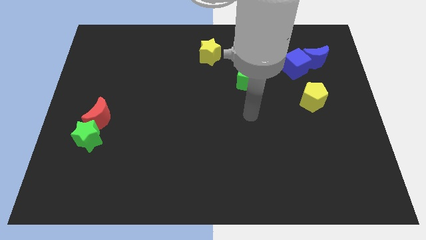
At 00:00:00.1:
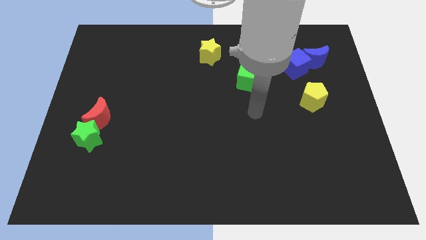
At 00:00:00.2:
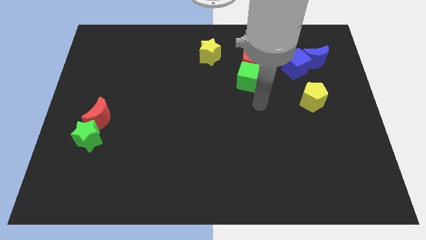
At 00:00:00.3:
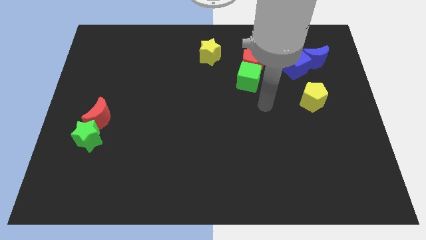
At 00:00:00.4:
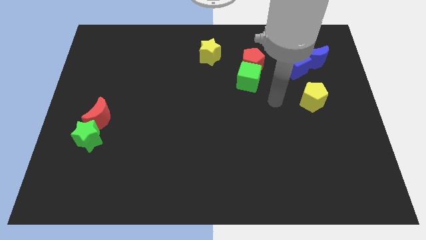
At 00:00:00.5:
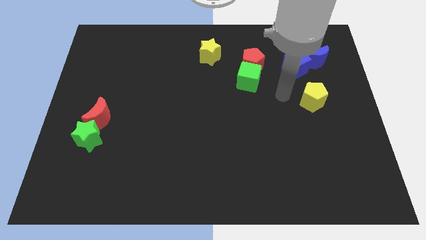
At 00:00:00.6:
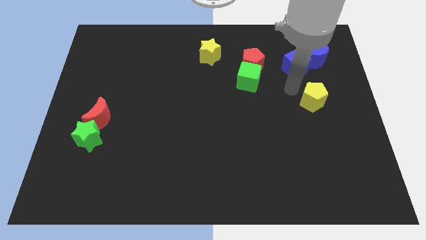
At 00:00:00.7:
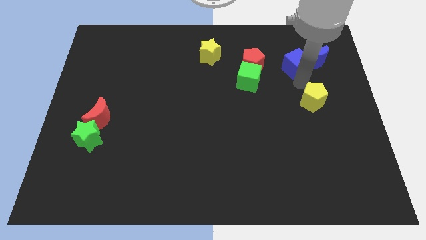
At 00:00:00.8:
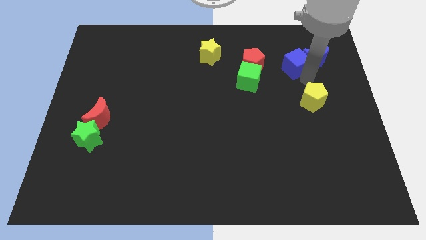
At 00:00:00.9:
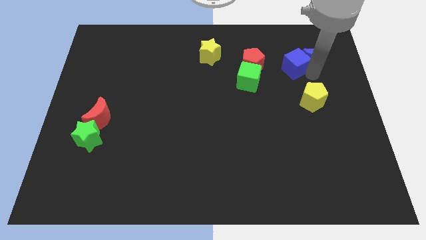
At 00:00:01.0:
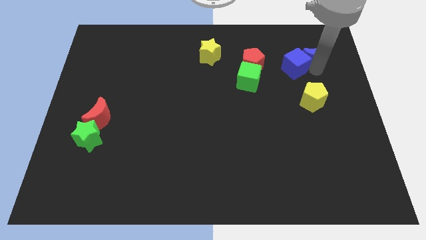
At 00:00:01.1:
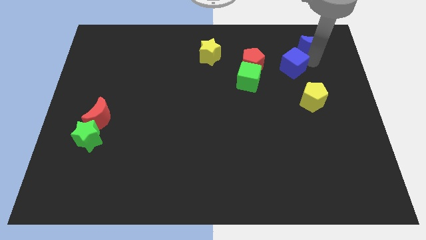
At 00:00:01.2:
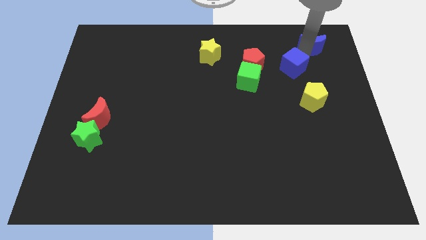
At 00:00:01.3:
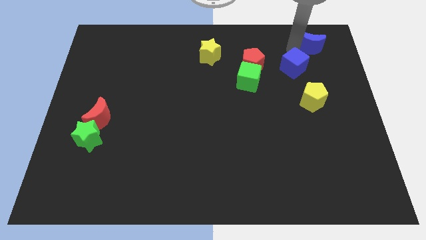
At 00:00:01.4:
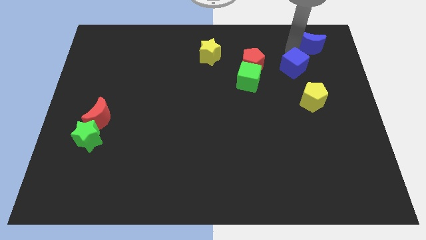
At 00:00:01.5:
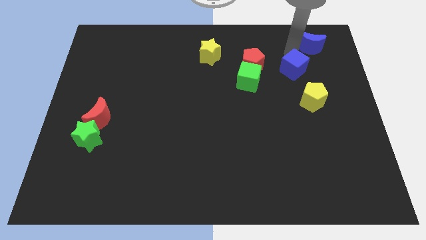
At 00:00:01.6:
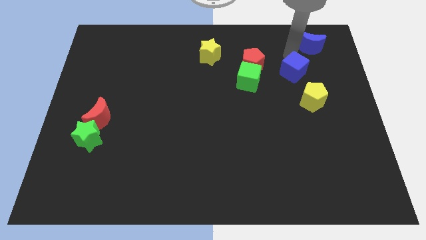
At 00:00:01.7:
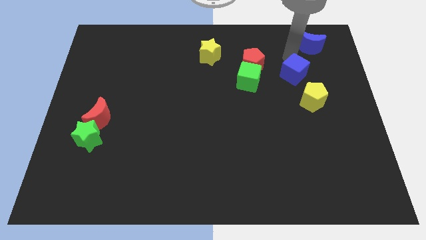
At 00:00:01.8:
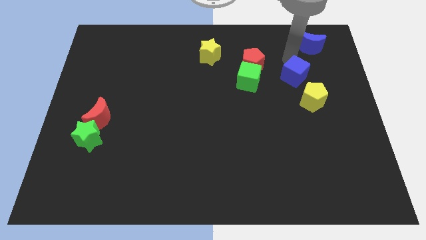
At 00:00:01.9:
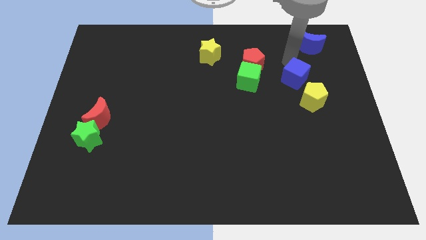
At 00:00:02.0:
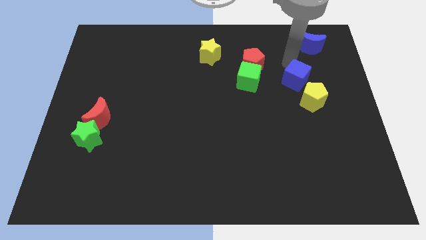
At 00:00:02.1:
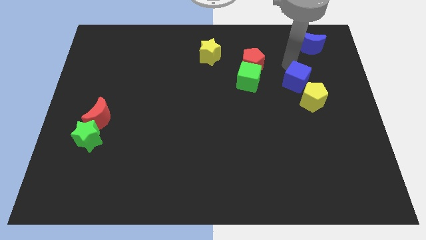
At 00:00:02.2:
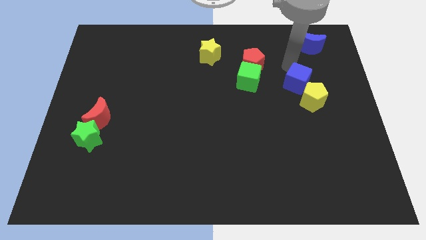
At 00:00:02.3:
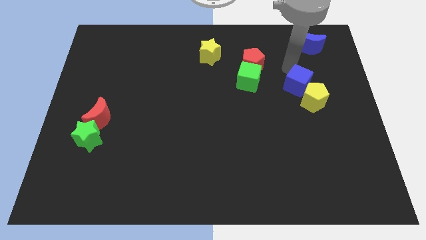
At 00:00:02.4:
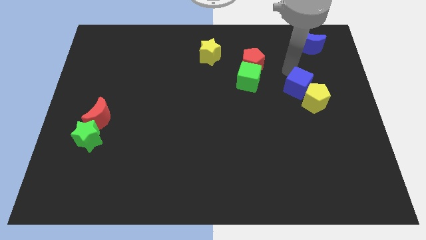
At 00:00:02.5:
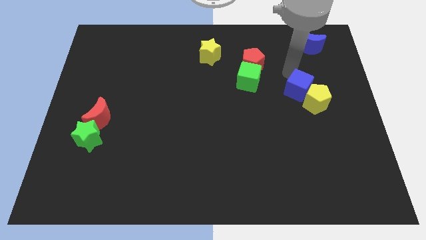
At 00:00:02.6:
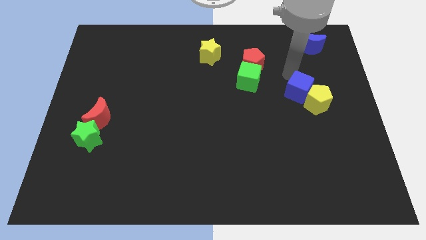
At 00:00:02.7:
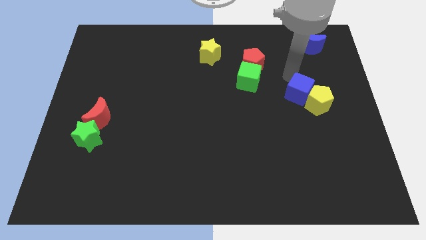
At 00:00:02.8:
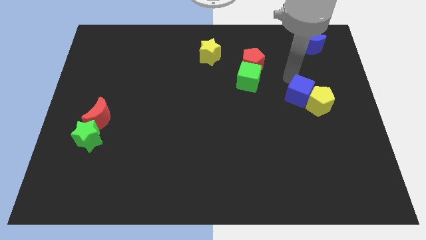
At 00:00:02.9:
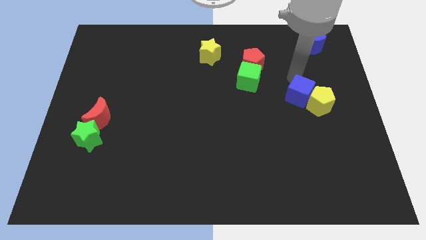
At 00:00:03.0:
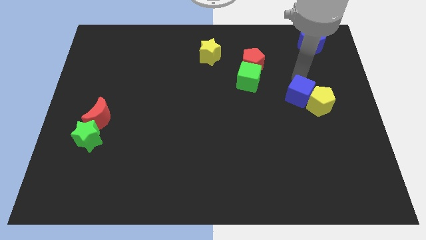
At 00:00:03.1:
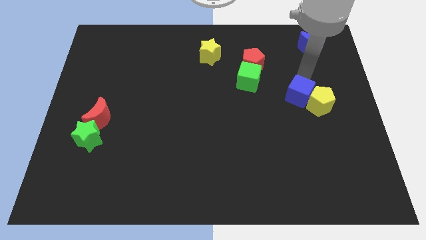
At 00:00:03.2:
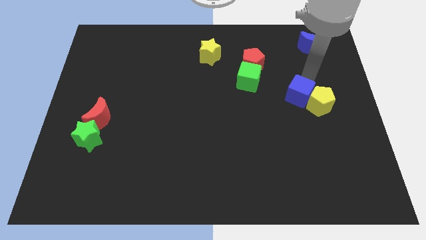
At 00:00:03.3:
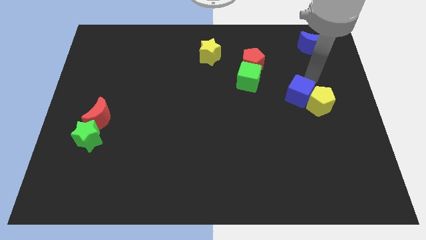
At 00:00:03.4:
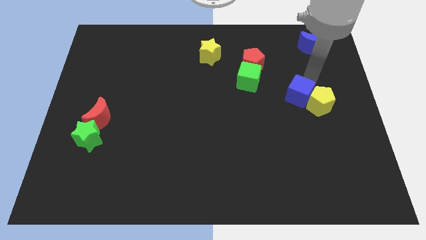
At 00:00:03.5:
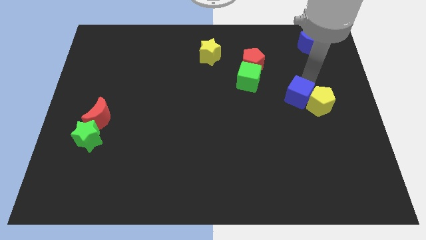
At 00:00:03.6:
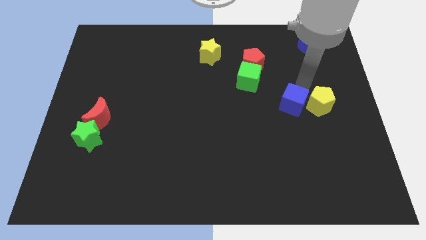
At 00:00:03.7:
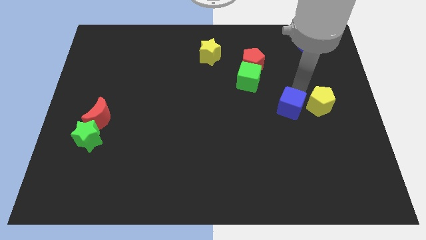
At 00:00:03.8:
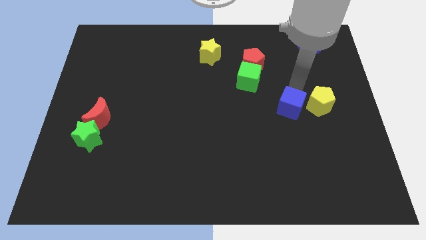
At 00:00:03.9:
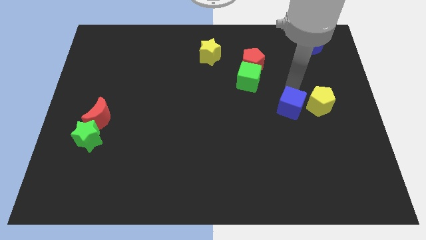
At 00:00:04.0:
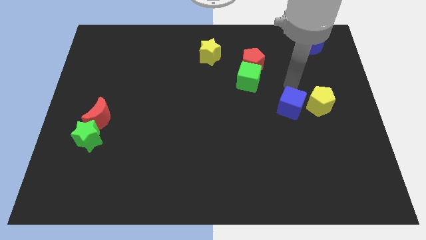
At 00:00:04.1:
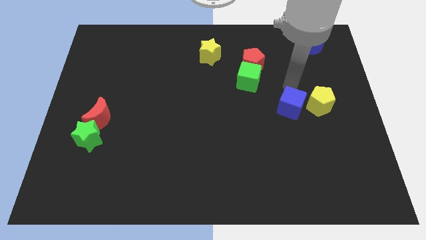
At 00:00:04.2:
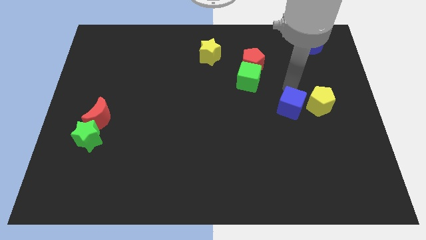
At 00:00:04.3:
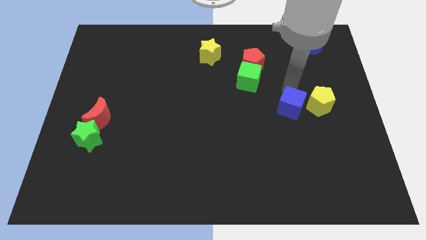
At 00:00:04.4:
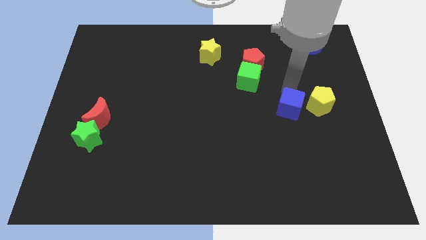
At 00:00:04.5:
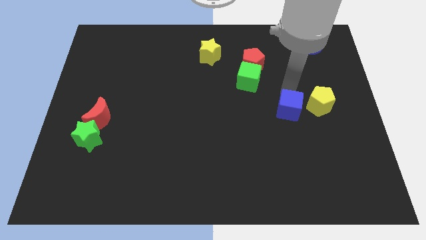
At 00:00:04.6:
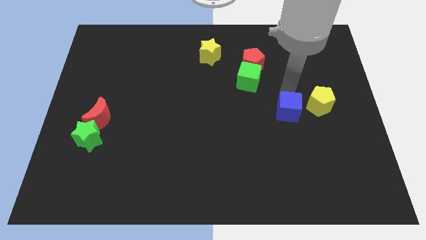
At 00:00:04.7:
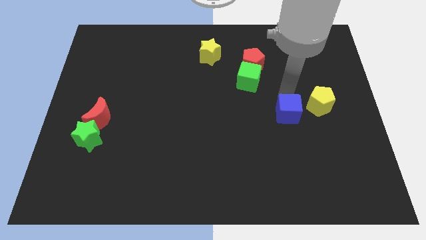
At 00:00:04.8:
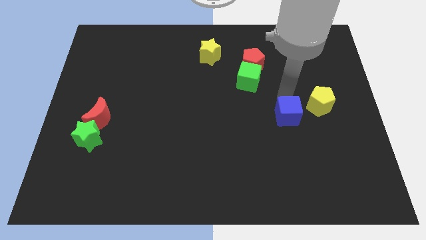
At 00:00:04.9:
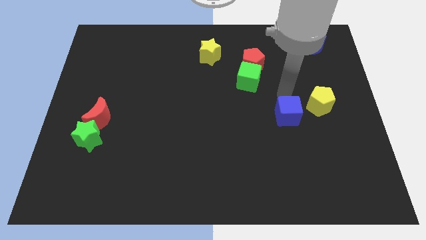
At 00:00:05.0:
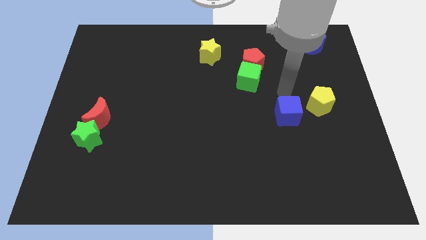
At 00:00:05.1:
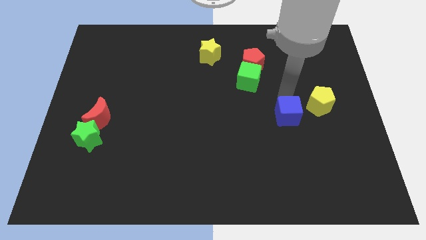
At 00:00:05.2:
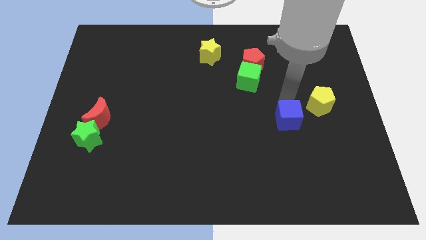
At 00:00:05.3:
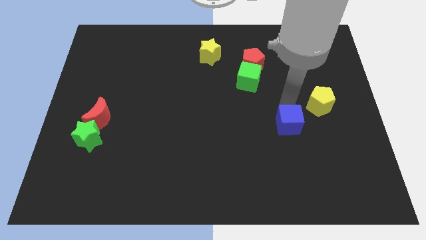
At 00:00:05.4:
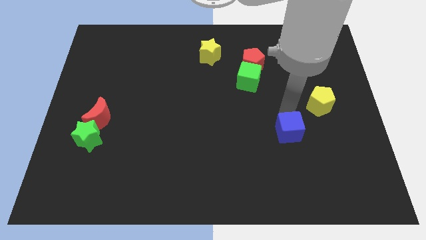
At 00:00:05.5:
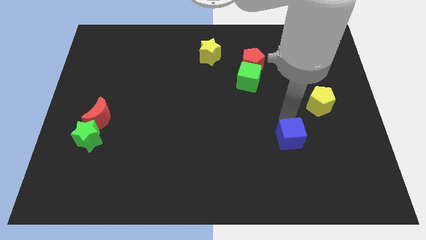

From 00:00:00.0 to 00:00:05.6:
slide the blue cube down

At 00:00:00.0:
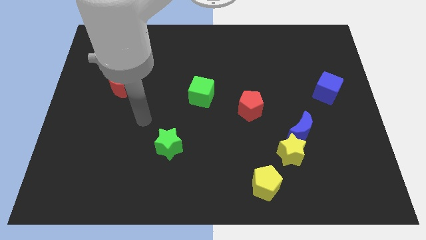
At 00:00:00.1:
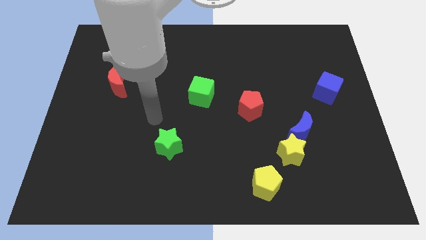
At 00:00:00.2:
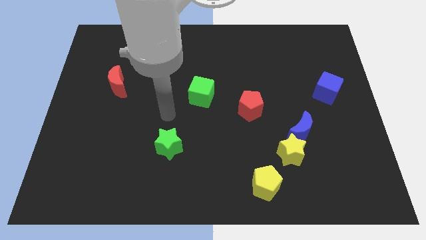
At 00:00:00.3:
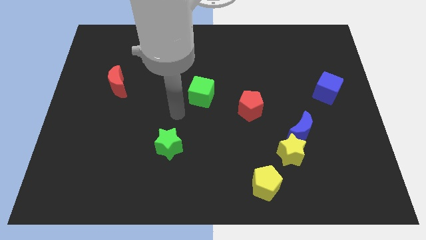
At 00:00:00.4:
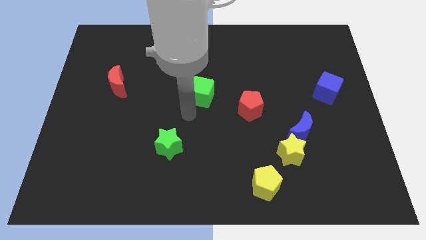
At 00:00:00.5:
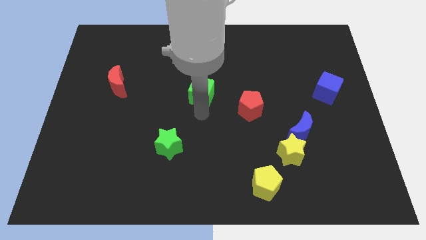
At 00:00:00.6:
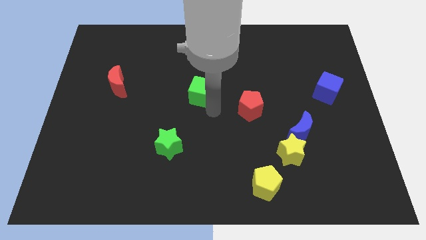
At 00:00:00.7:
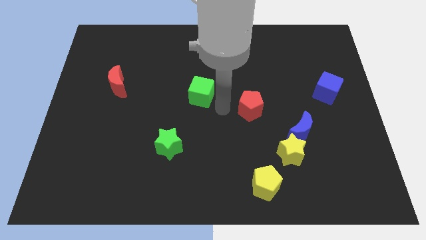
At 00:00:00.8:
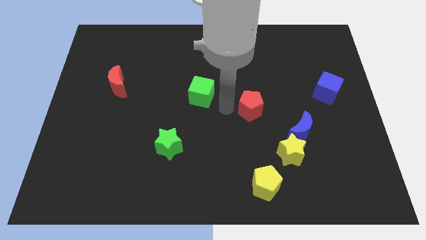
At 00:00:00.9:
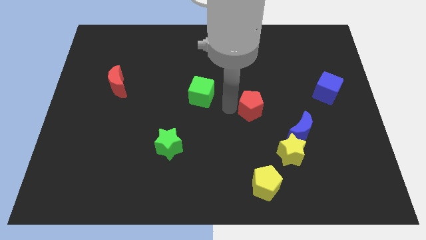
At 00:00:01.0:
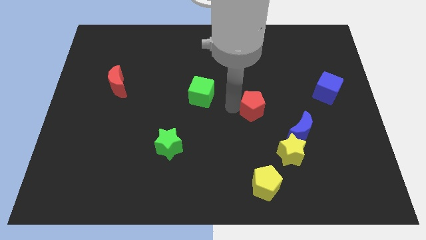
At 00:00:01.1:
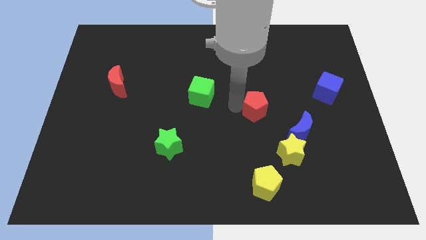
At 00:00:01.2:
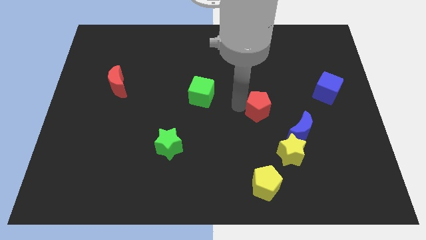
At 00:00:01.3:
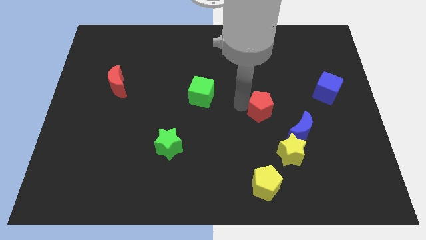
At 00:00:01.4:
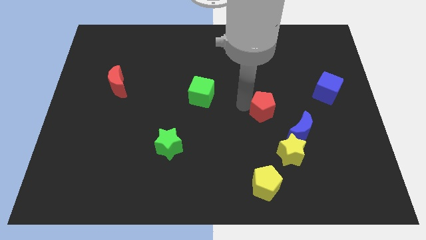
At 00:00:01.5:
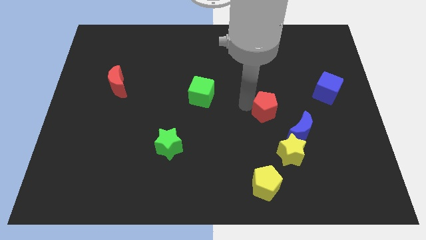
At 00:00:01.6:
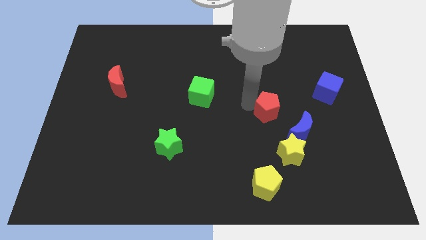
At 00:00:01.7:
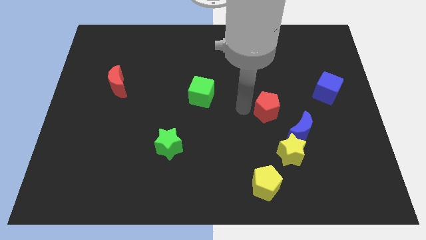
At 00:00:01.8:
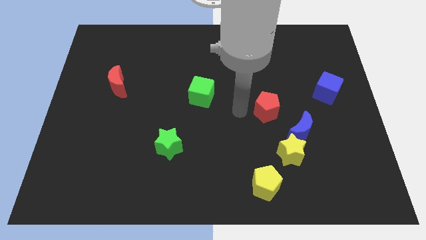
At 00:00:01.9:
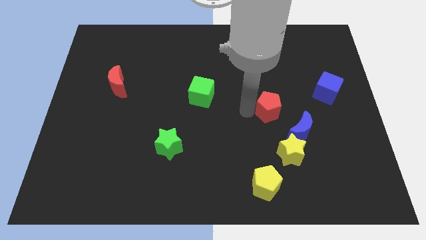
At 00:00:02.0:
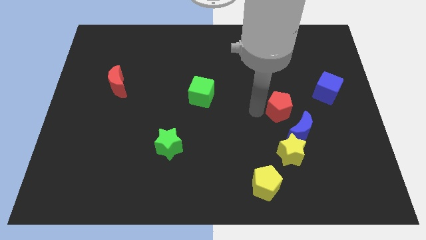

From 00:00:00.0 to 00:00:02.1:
push the red pentagon a bit to the right
